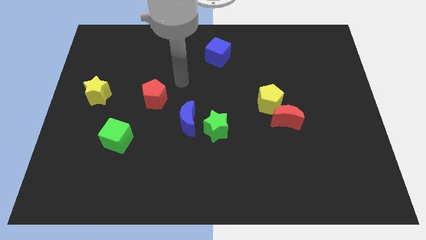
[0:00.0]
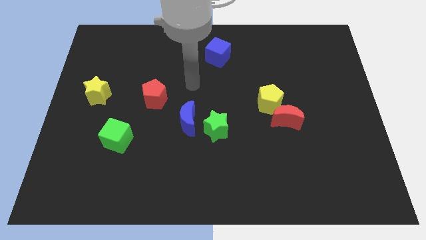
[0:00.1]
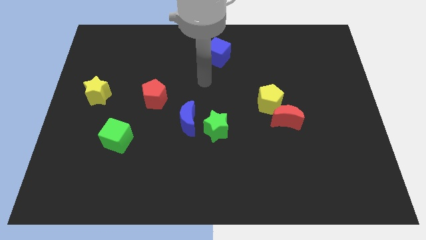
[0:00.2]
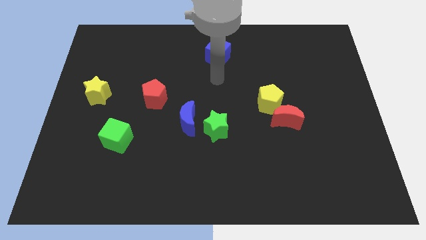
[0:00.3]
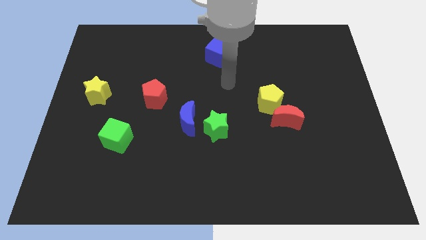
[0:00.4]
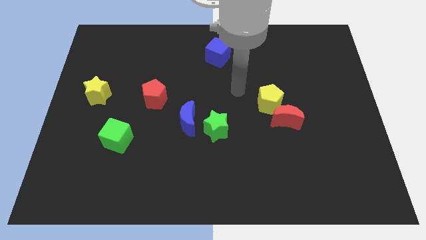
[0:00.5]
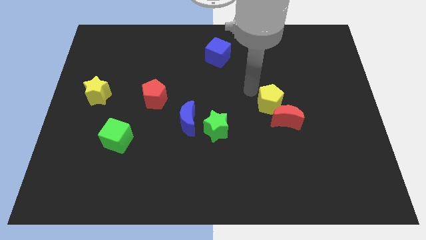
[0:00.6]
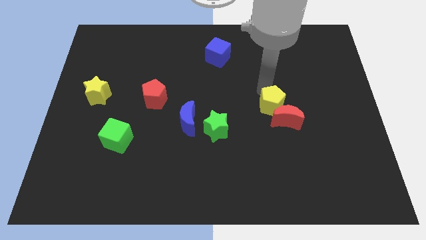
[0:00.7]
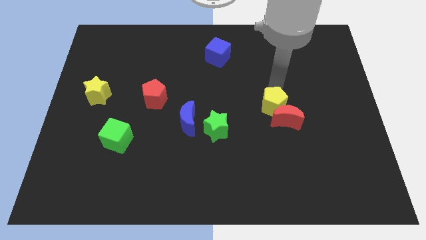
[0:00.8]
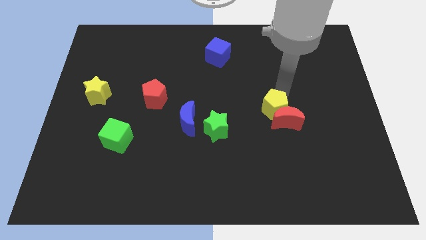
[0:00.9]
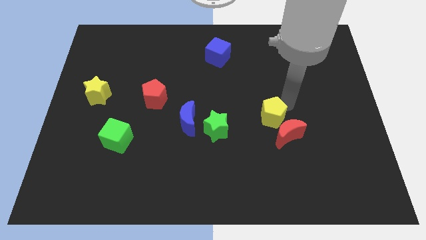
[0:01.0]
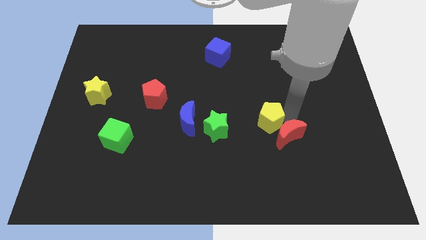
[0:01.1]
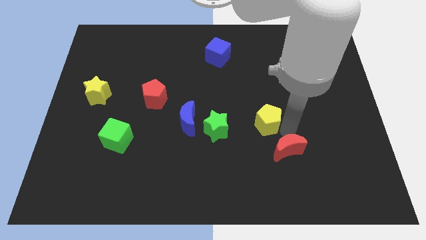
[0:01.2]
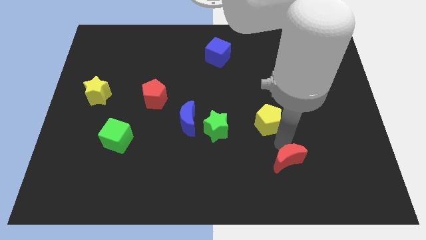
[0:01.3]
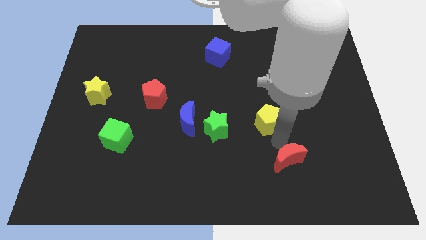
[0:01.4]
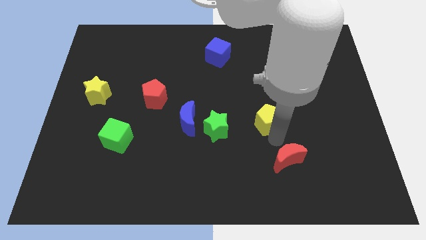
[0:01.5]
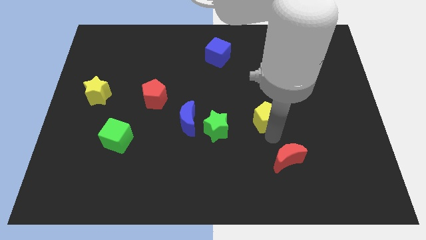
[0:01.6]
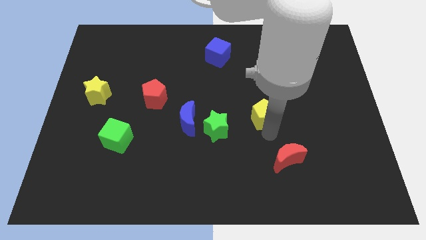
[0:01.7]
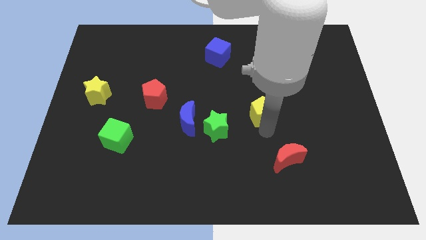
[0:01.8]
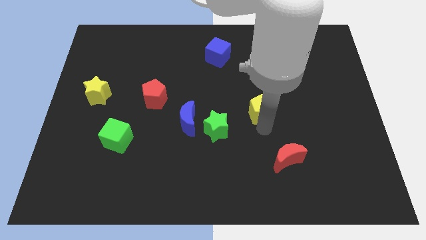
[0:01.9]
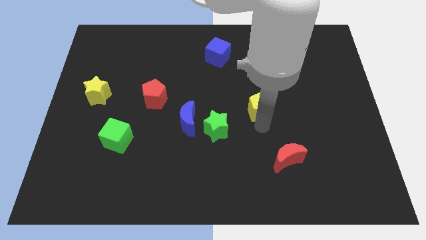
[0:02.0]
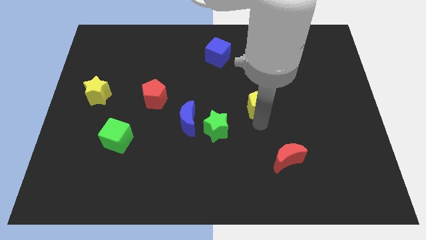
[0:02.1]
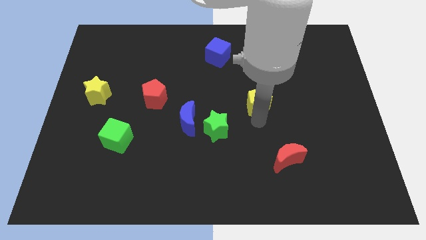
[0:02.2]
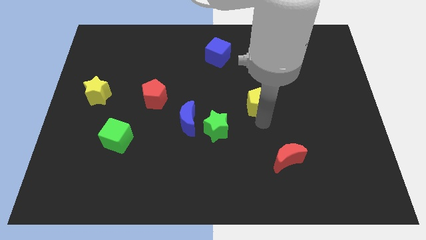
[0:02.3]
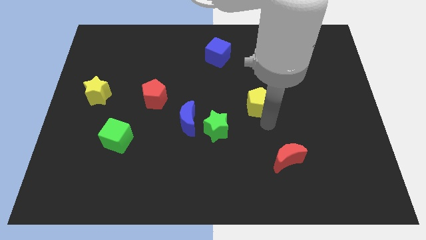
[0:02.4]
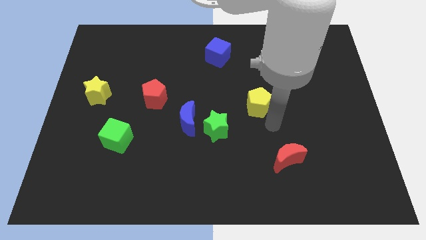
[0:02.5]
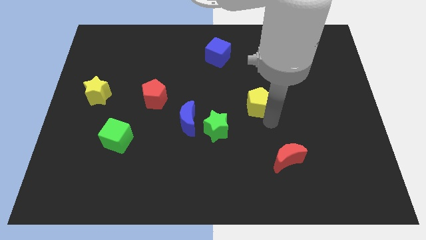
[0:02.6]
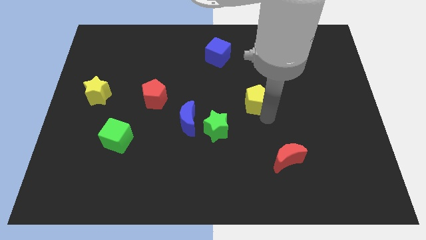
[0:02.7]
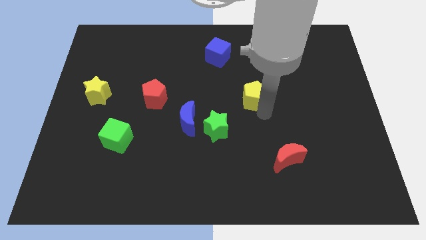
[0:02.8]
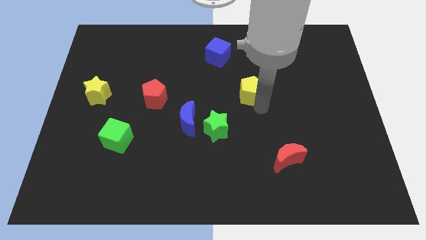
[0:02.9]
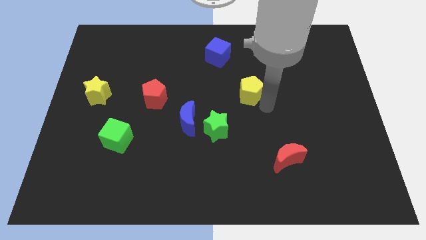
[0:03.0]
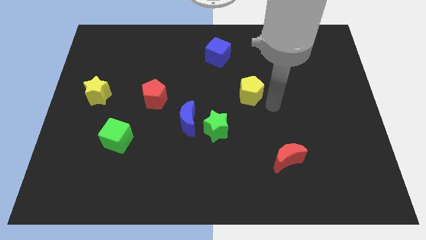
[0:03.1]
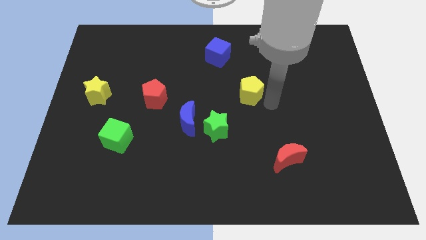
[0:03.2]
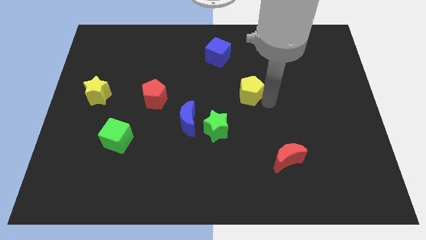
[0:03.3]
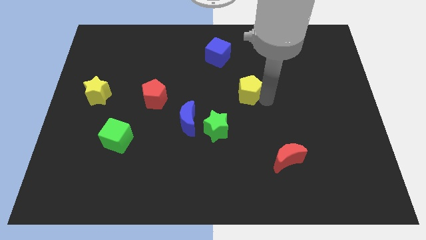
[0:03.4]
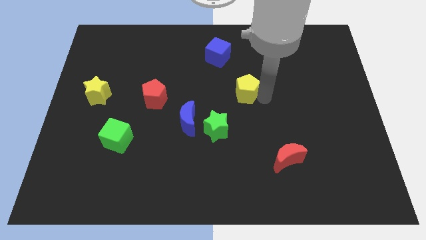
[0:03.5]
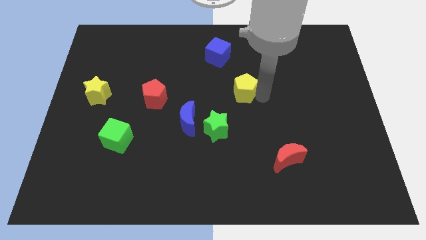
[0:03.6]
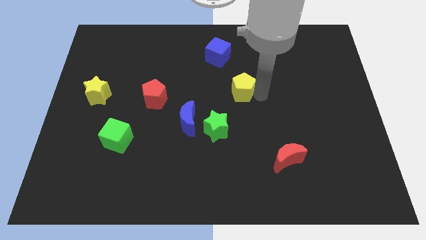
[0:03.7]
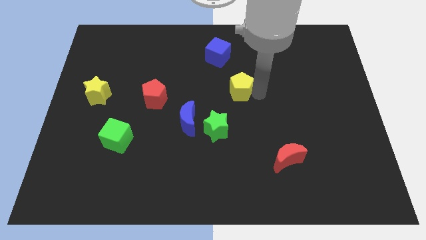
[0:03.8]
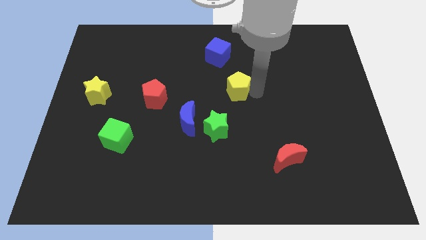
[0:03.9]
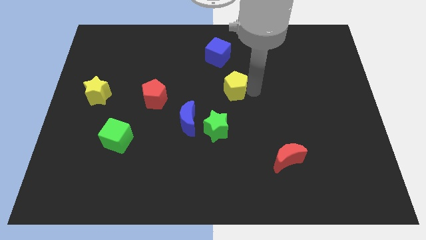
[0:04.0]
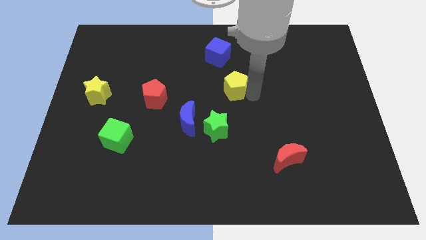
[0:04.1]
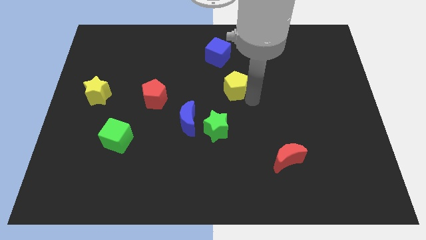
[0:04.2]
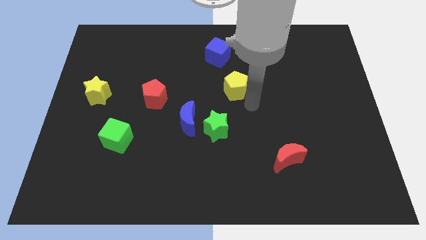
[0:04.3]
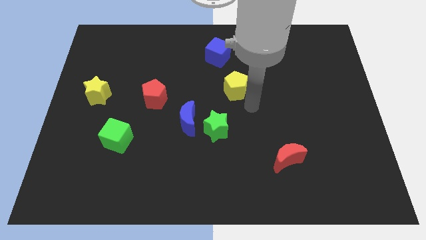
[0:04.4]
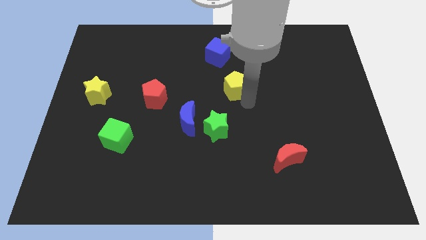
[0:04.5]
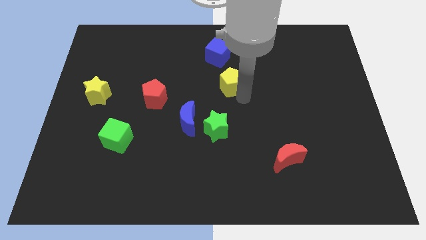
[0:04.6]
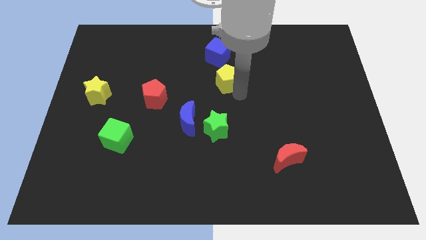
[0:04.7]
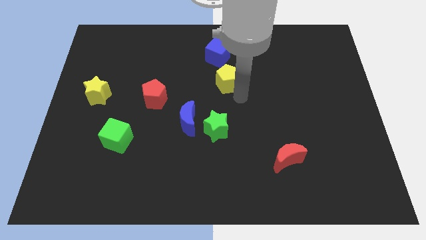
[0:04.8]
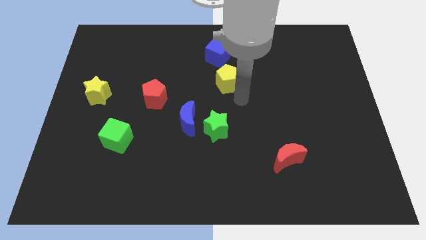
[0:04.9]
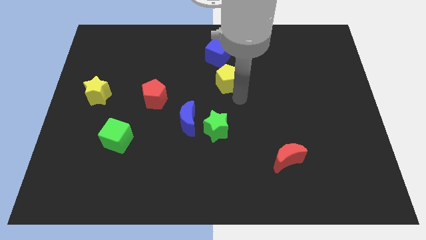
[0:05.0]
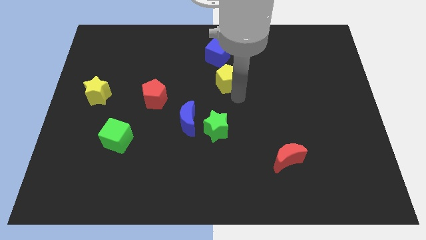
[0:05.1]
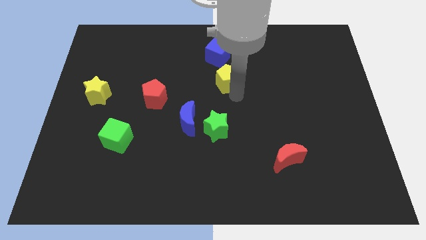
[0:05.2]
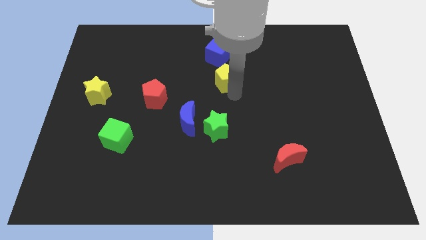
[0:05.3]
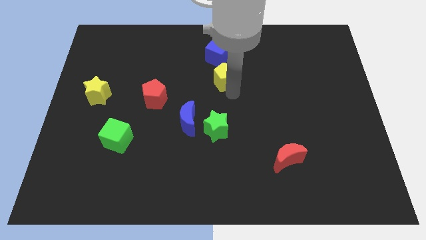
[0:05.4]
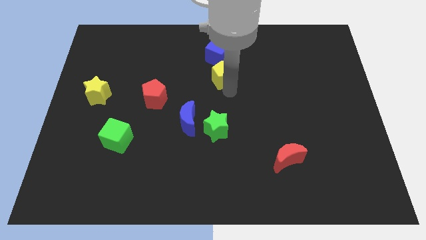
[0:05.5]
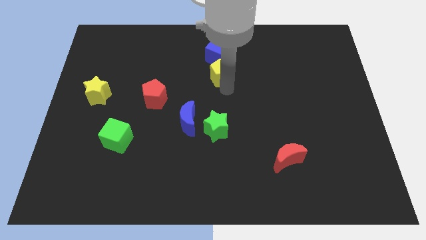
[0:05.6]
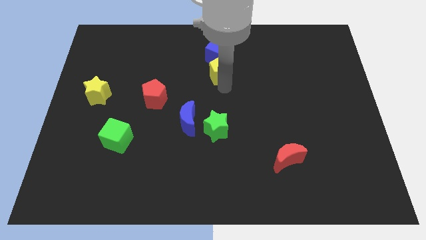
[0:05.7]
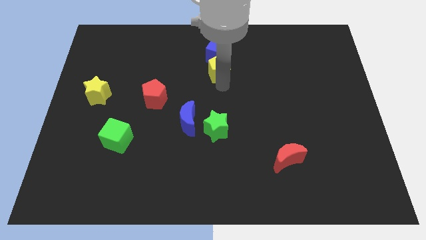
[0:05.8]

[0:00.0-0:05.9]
move the yellow pentagon next to the blue cube

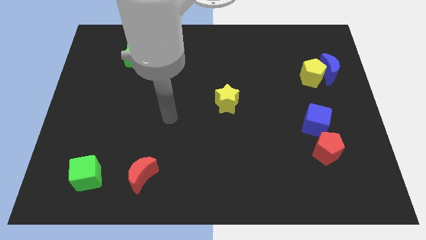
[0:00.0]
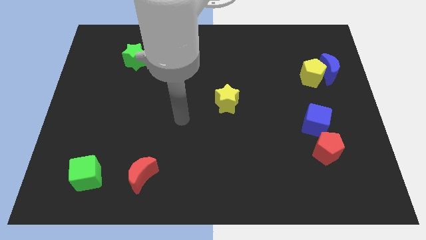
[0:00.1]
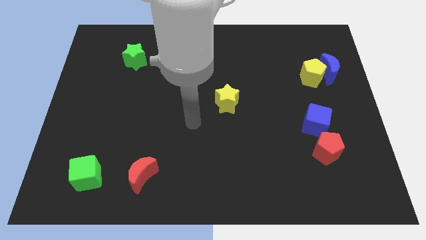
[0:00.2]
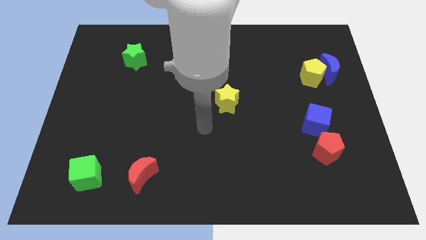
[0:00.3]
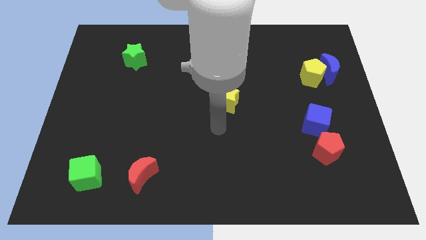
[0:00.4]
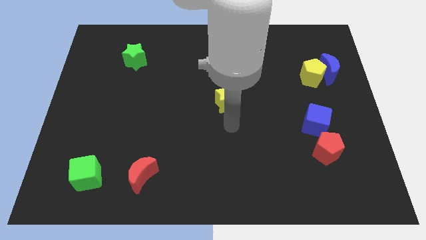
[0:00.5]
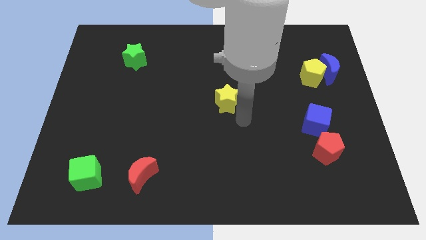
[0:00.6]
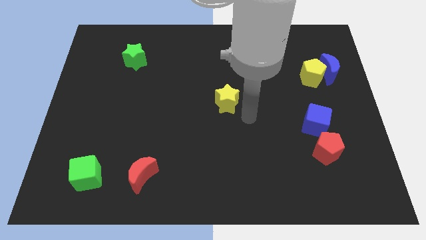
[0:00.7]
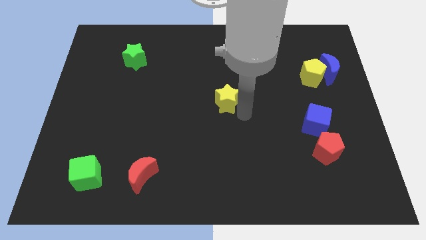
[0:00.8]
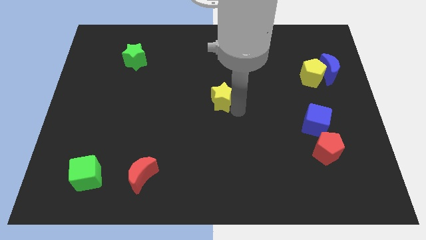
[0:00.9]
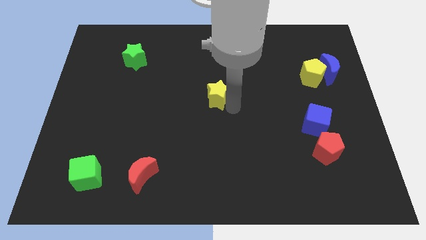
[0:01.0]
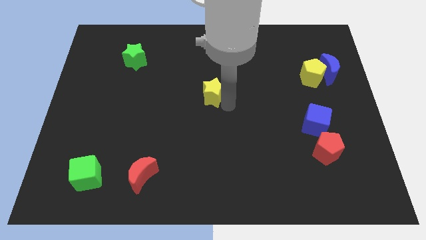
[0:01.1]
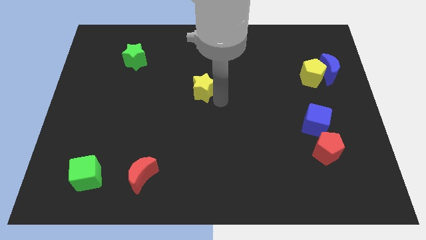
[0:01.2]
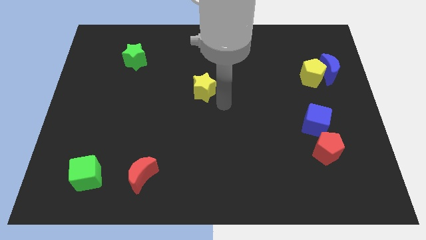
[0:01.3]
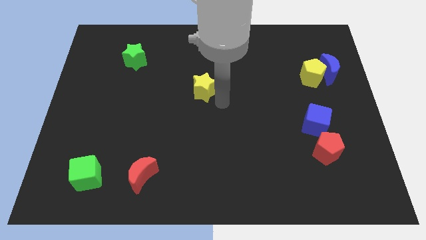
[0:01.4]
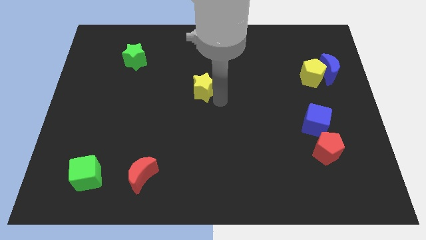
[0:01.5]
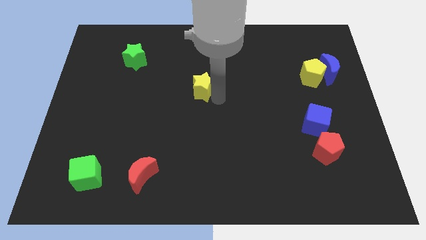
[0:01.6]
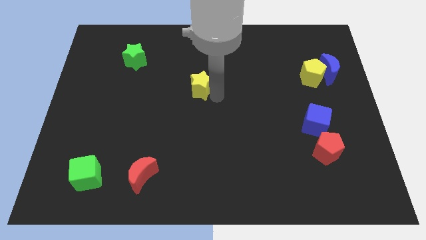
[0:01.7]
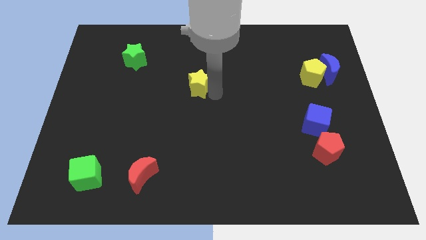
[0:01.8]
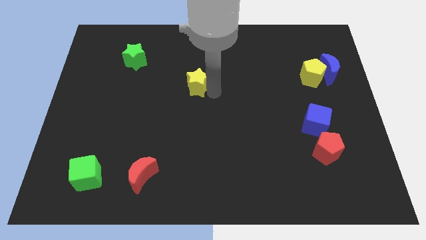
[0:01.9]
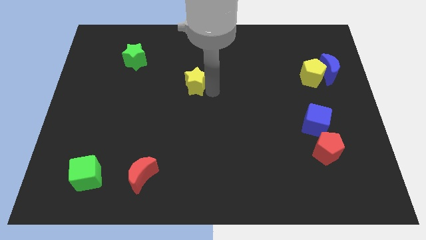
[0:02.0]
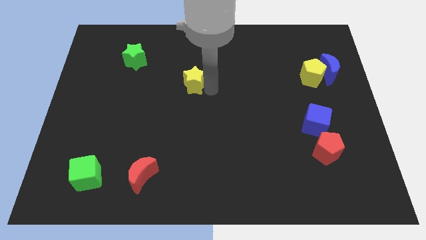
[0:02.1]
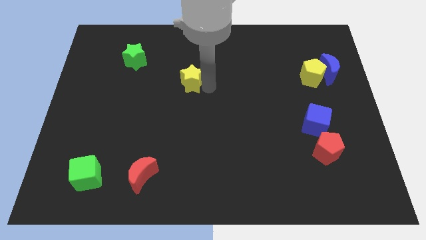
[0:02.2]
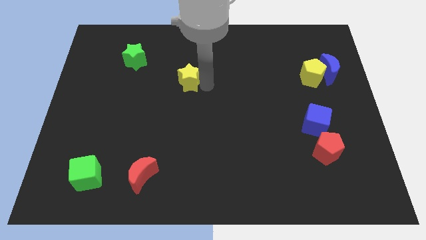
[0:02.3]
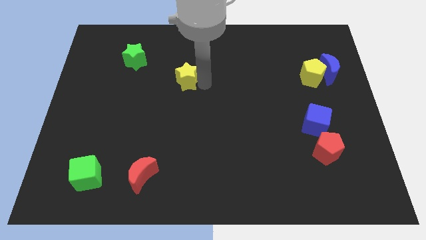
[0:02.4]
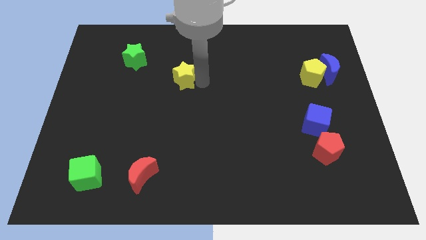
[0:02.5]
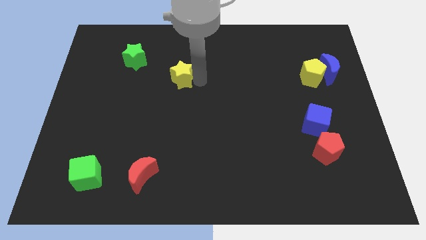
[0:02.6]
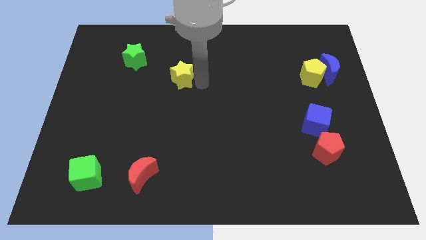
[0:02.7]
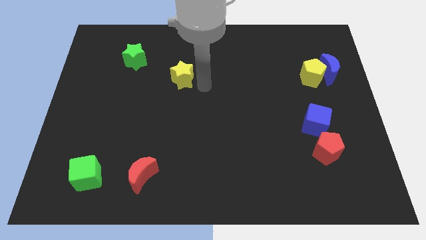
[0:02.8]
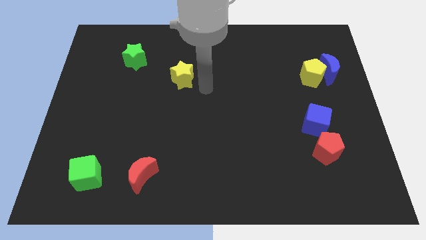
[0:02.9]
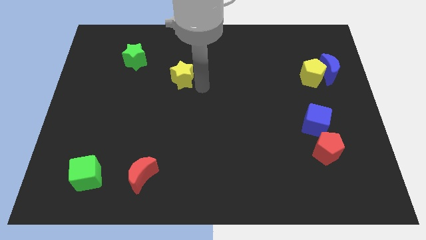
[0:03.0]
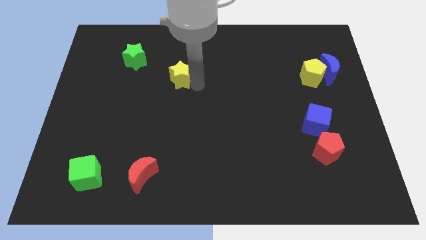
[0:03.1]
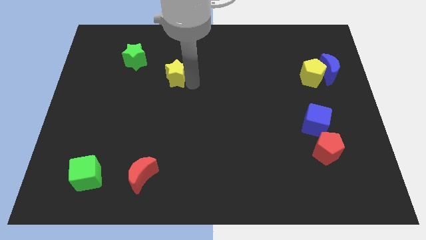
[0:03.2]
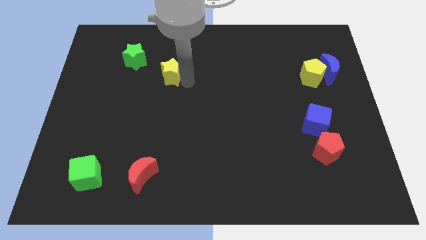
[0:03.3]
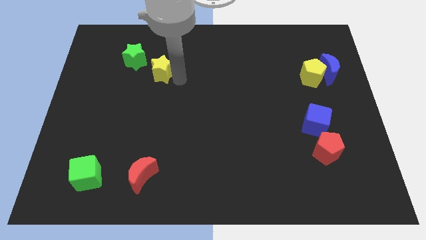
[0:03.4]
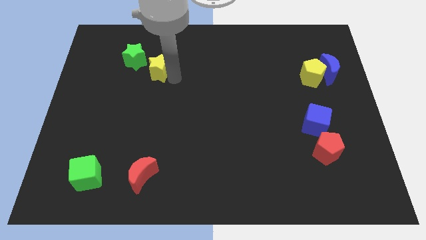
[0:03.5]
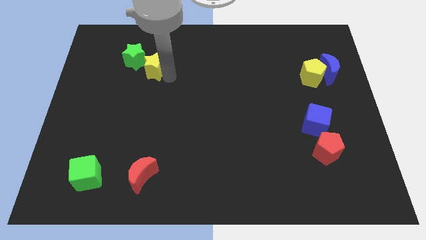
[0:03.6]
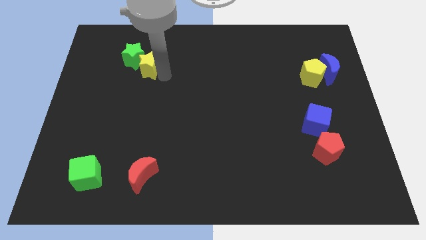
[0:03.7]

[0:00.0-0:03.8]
put the yellow star close to the green star
